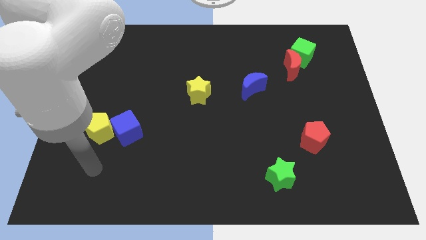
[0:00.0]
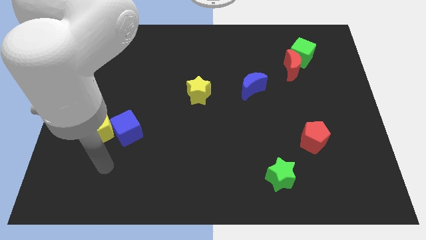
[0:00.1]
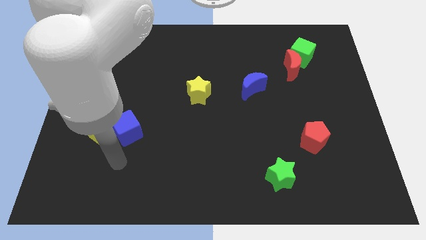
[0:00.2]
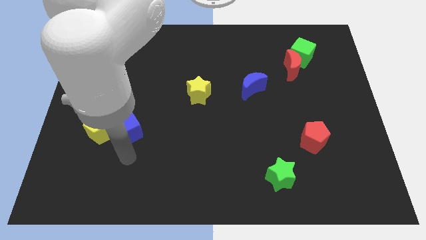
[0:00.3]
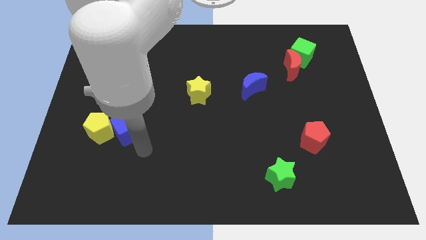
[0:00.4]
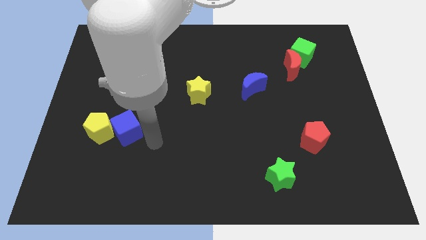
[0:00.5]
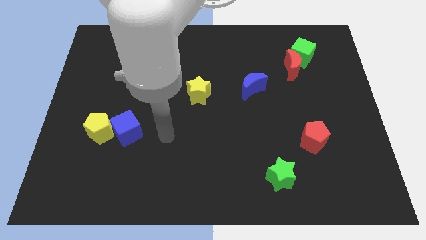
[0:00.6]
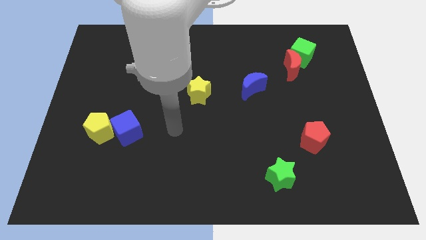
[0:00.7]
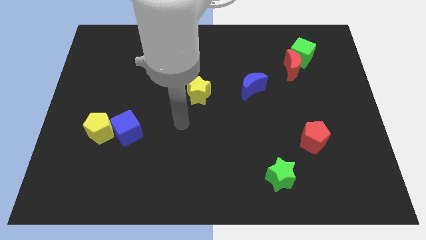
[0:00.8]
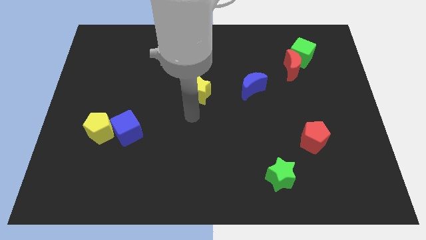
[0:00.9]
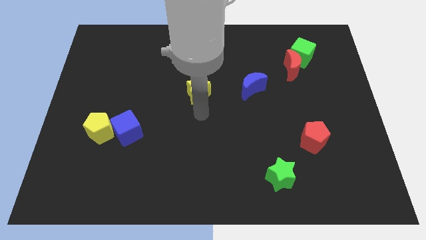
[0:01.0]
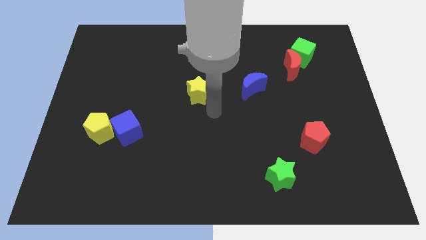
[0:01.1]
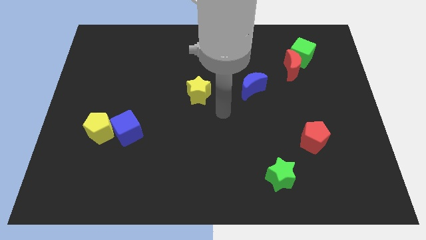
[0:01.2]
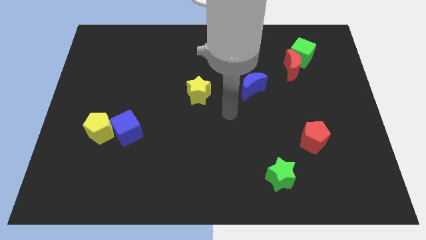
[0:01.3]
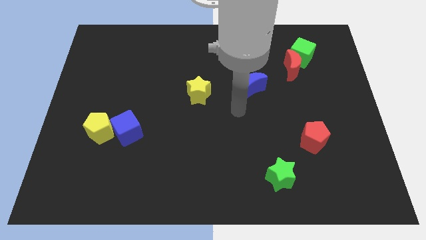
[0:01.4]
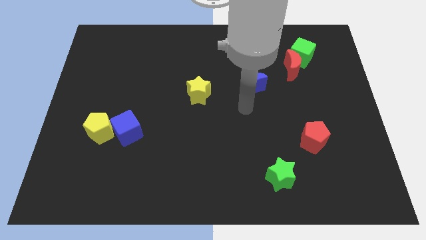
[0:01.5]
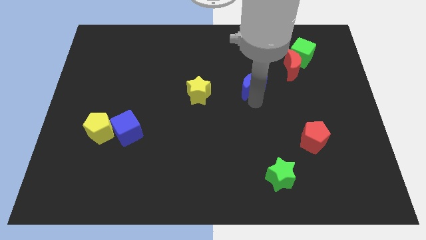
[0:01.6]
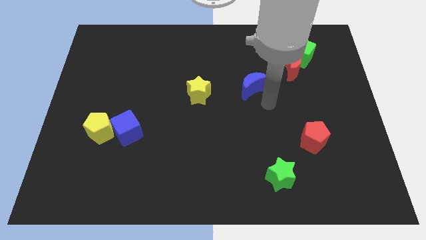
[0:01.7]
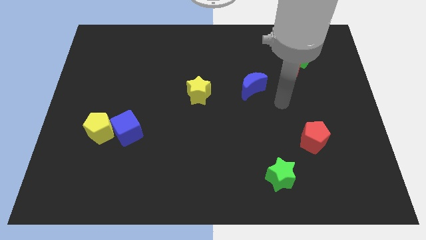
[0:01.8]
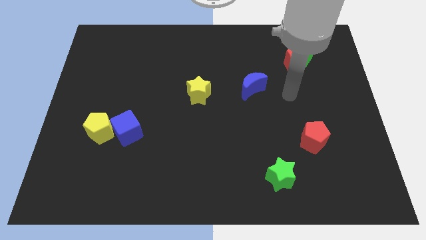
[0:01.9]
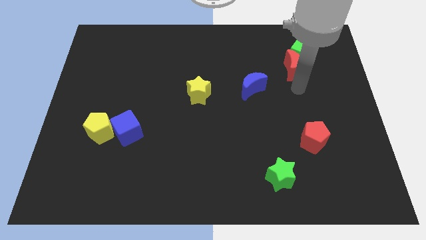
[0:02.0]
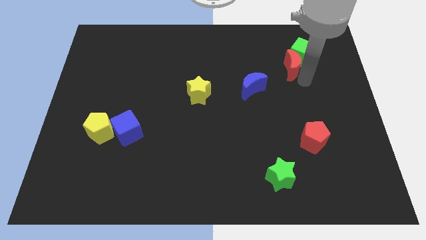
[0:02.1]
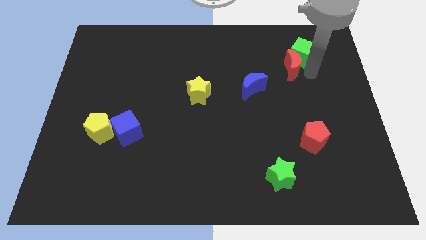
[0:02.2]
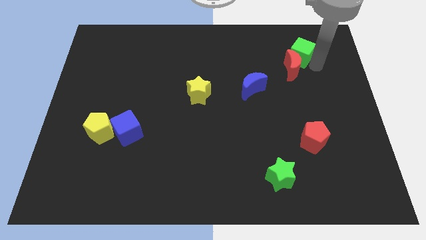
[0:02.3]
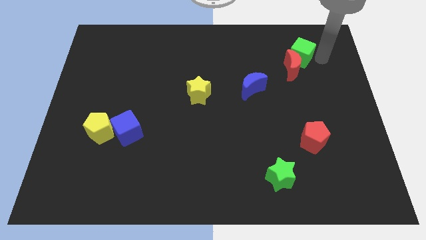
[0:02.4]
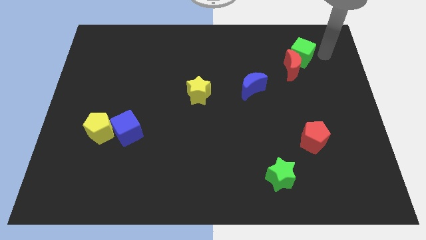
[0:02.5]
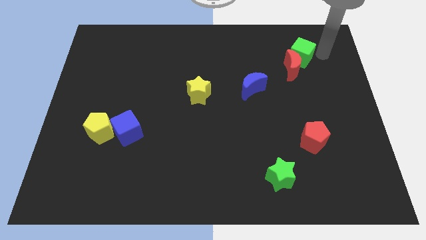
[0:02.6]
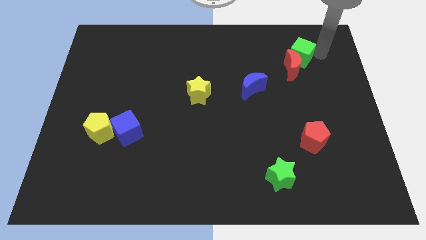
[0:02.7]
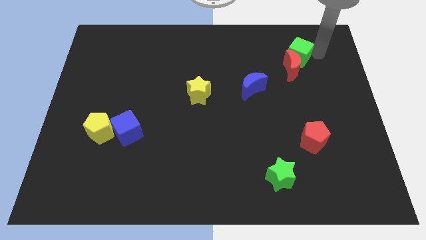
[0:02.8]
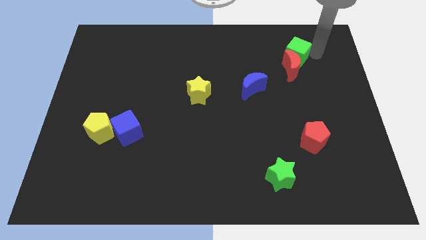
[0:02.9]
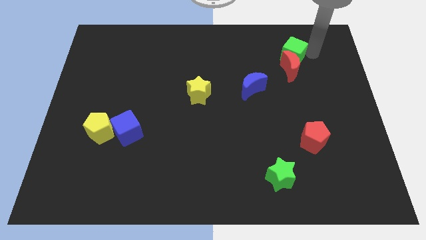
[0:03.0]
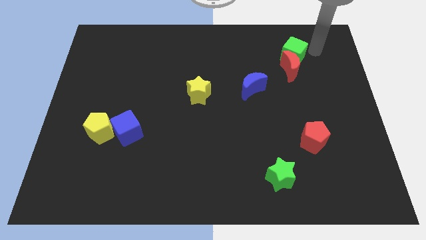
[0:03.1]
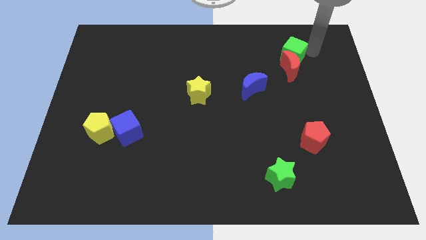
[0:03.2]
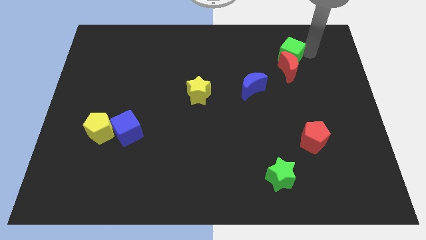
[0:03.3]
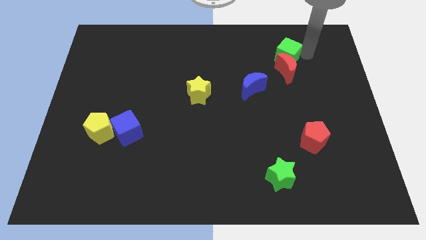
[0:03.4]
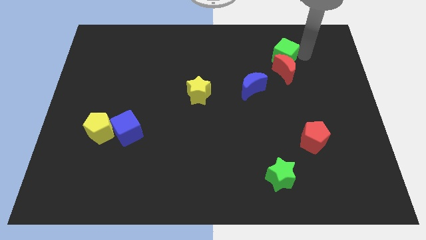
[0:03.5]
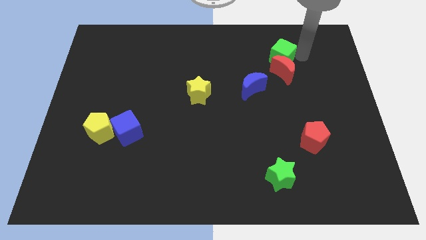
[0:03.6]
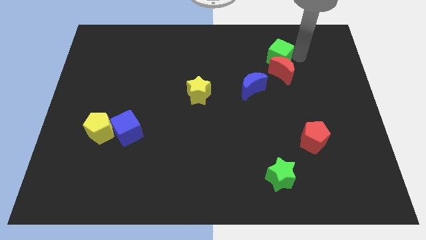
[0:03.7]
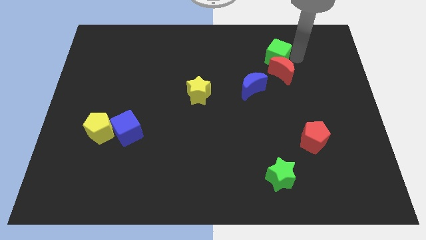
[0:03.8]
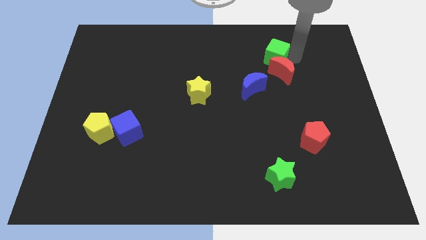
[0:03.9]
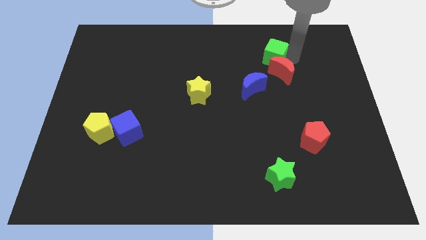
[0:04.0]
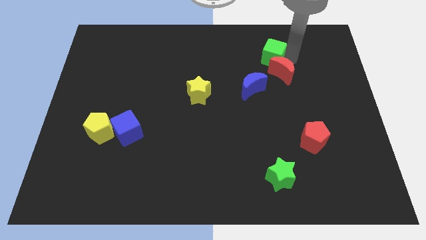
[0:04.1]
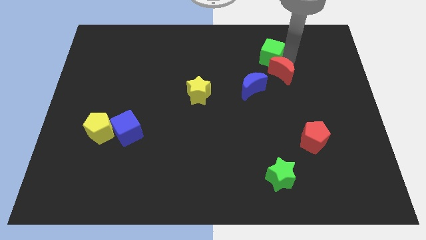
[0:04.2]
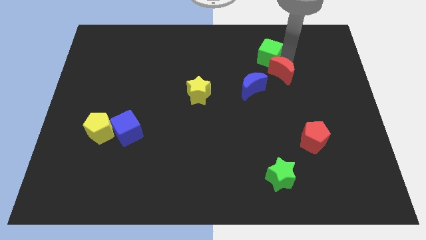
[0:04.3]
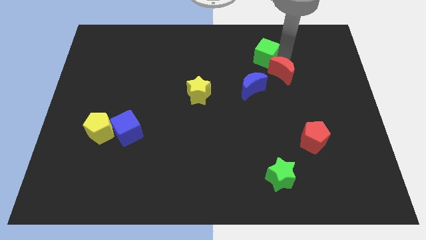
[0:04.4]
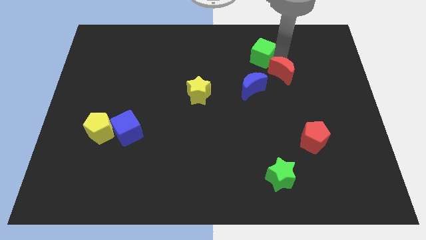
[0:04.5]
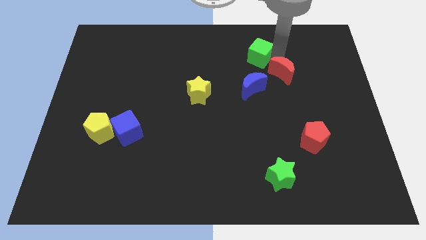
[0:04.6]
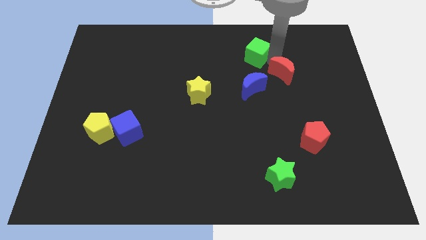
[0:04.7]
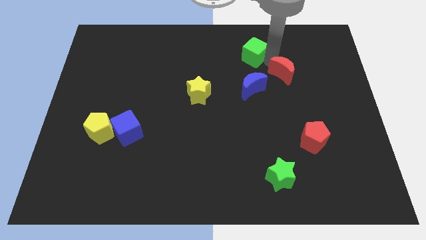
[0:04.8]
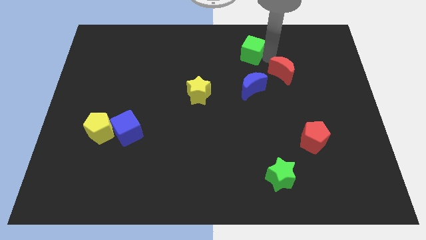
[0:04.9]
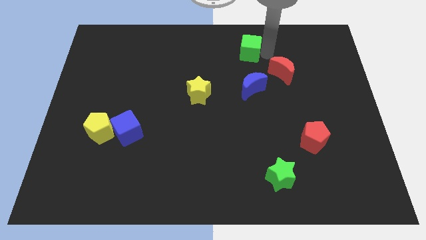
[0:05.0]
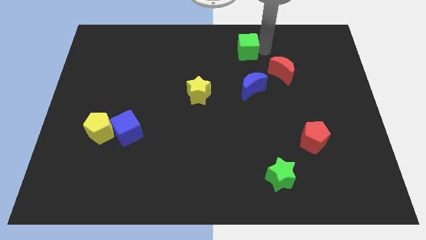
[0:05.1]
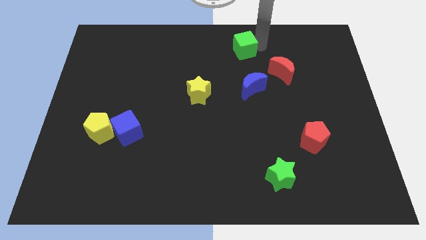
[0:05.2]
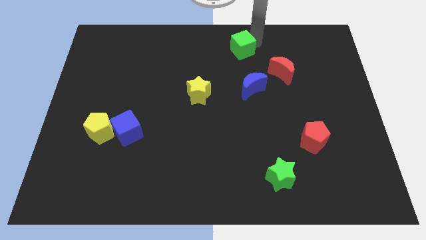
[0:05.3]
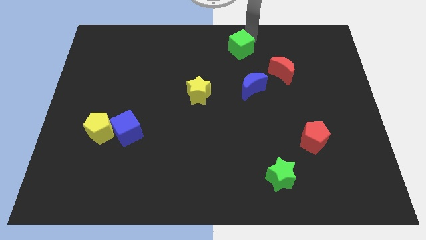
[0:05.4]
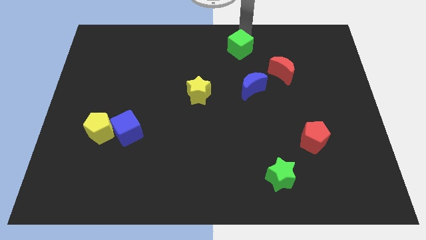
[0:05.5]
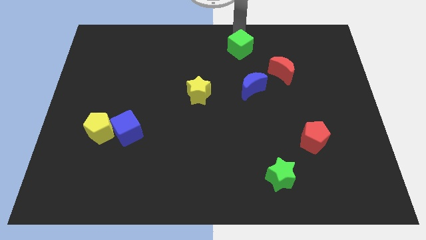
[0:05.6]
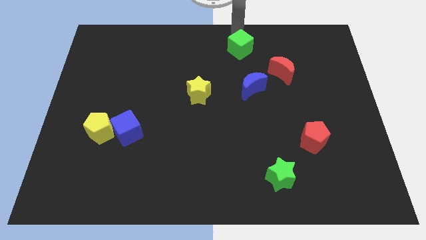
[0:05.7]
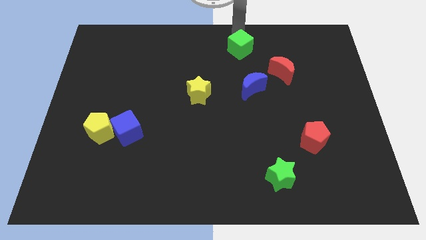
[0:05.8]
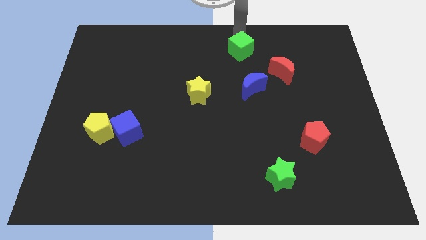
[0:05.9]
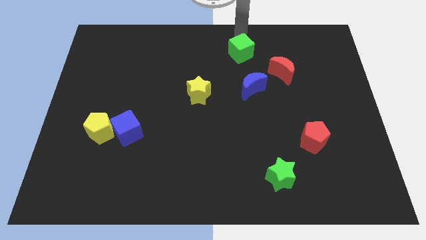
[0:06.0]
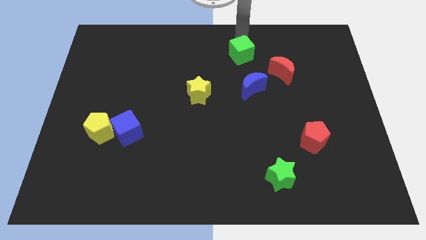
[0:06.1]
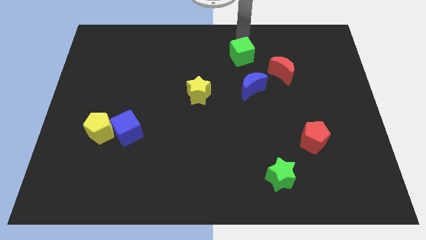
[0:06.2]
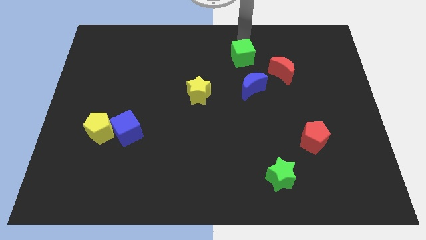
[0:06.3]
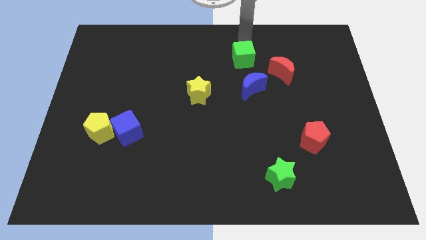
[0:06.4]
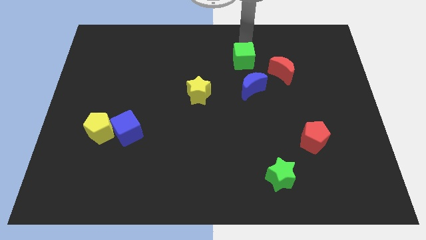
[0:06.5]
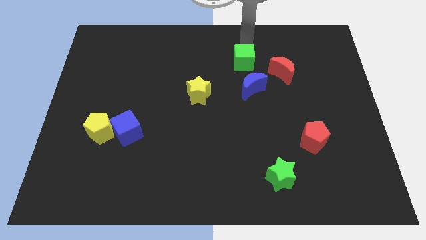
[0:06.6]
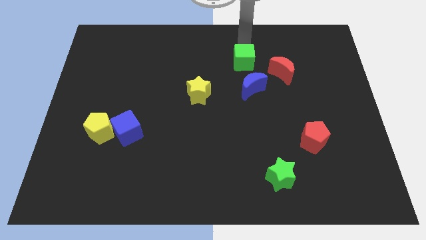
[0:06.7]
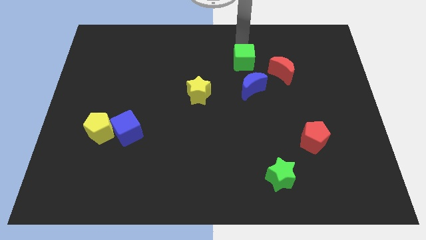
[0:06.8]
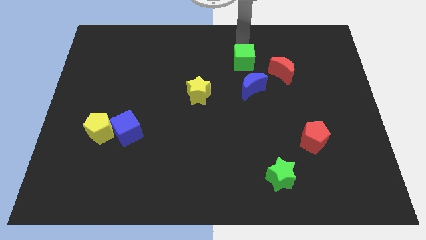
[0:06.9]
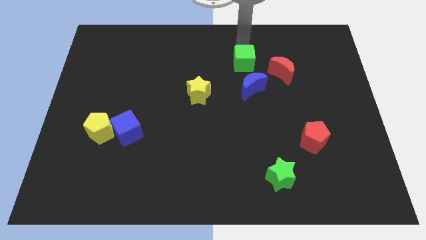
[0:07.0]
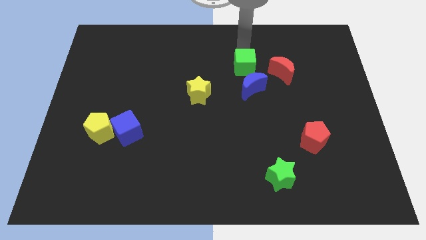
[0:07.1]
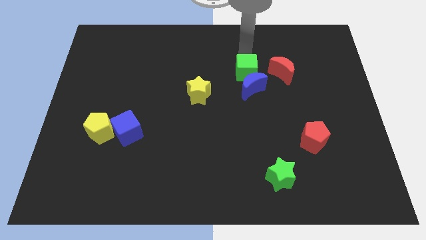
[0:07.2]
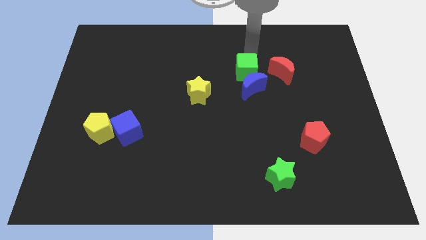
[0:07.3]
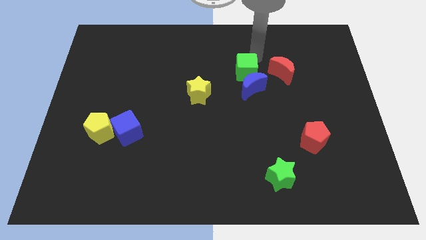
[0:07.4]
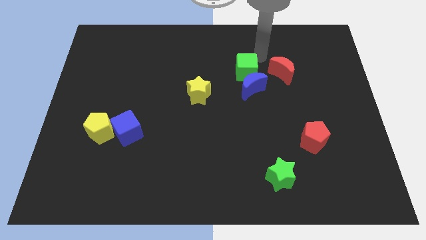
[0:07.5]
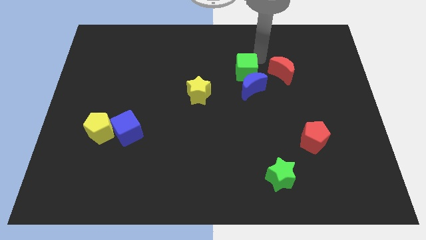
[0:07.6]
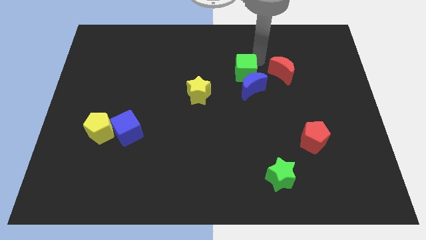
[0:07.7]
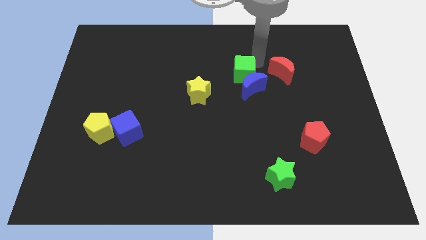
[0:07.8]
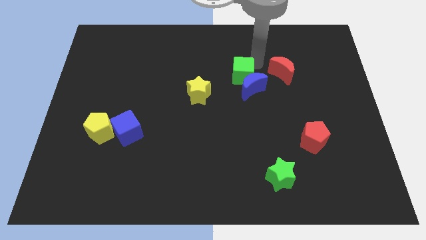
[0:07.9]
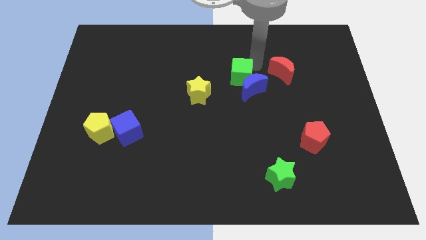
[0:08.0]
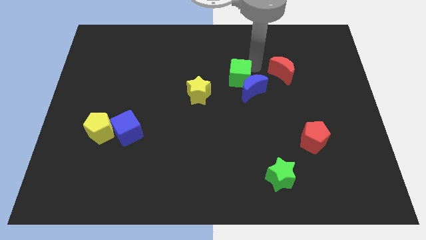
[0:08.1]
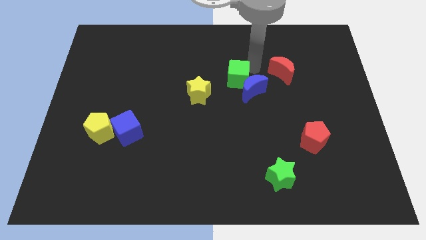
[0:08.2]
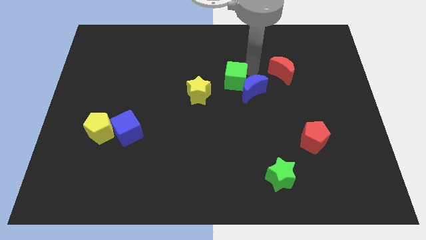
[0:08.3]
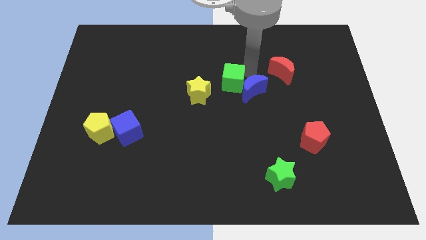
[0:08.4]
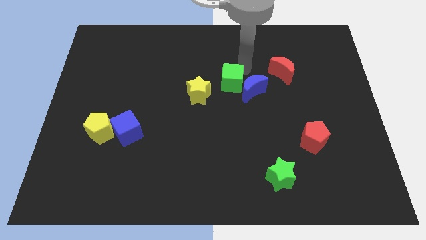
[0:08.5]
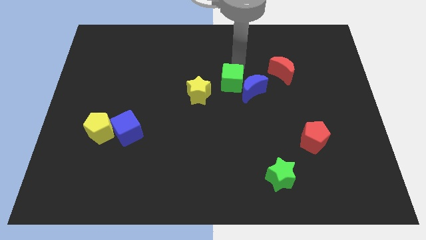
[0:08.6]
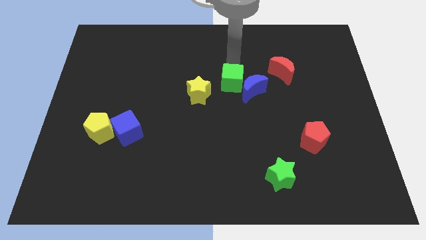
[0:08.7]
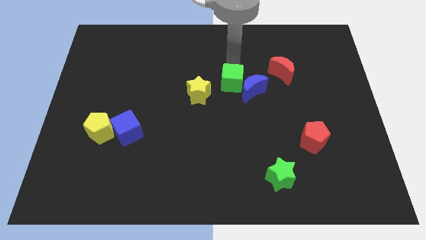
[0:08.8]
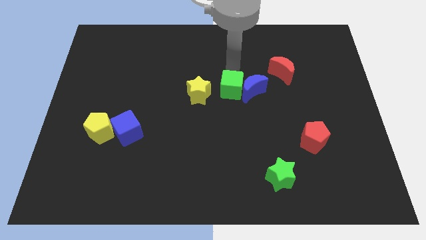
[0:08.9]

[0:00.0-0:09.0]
slide the green cube to the bottom left side of the blue moon
